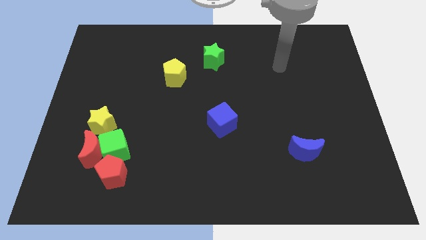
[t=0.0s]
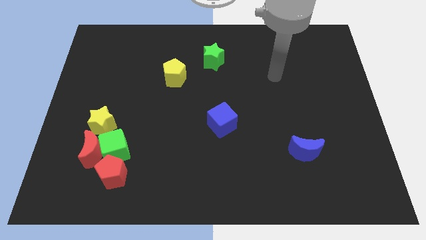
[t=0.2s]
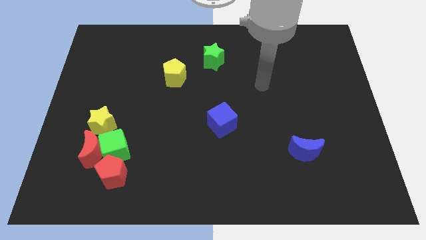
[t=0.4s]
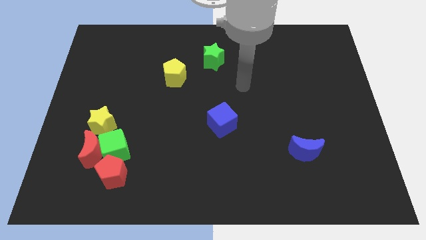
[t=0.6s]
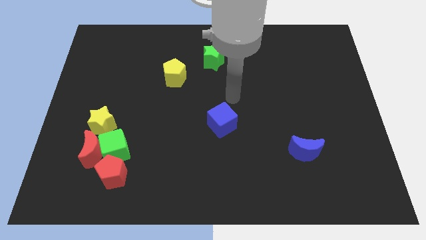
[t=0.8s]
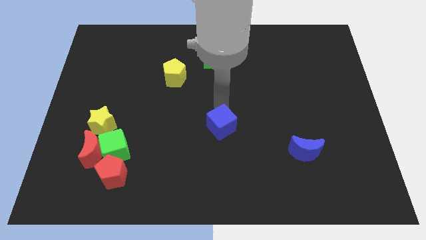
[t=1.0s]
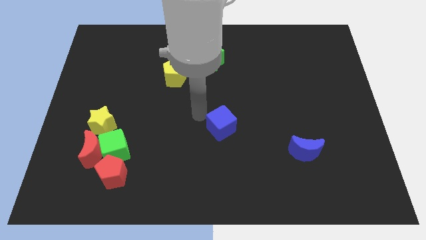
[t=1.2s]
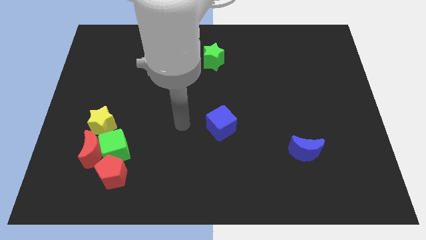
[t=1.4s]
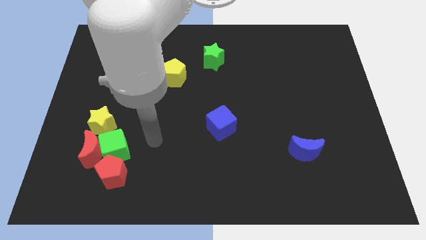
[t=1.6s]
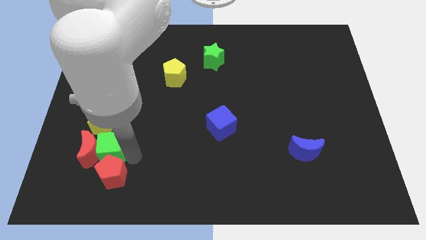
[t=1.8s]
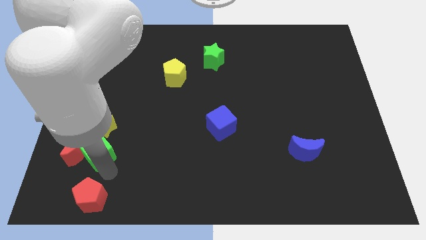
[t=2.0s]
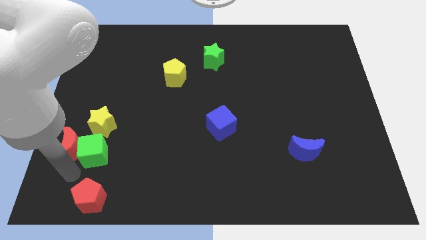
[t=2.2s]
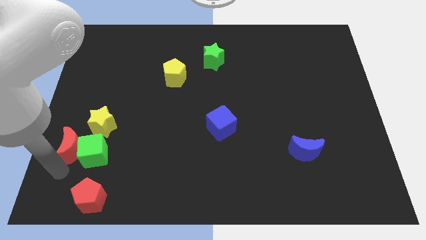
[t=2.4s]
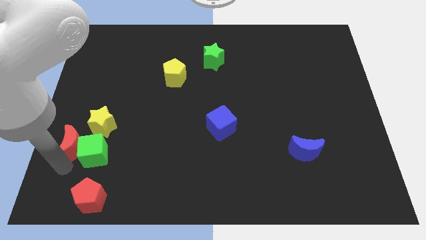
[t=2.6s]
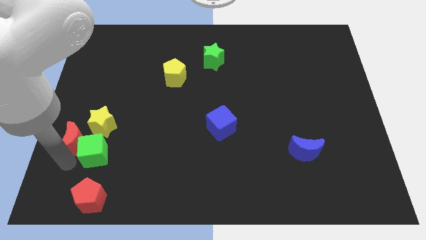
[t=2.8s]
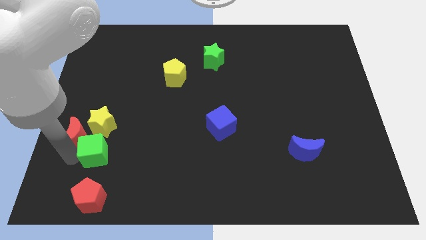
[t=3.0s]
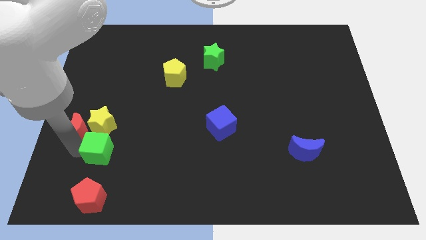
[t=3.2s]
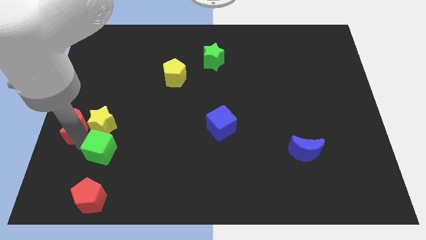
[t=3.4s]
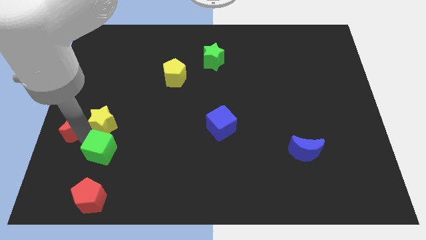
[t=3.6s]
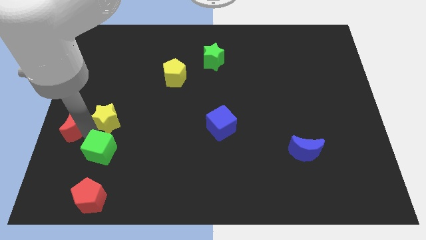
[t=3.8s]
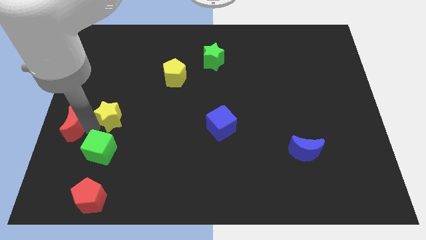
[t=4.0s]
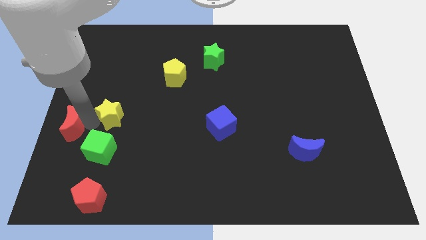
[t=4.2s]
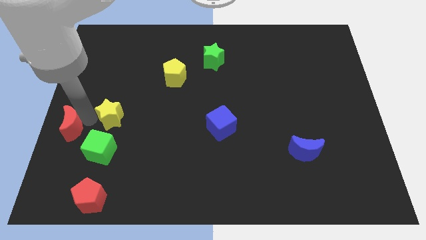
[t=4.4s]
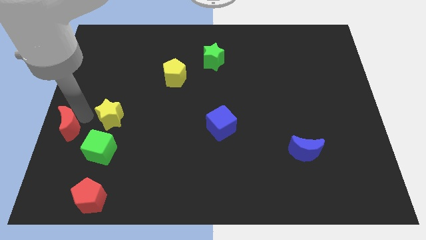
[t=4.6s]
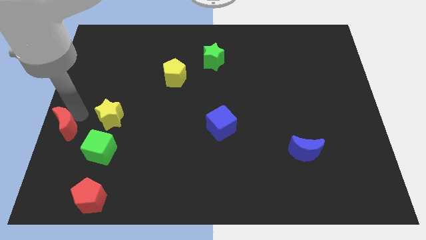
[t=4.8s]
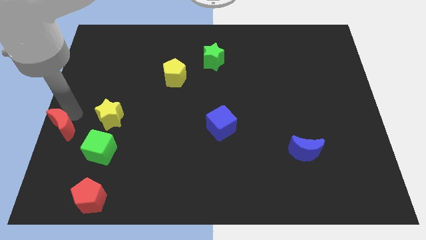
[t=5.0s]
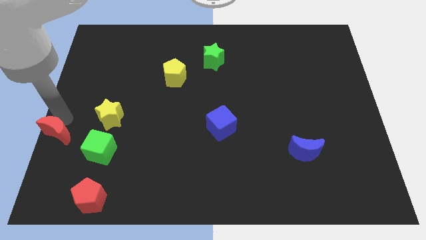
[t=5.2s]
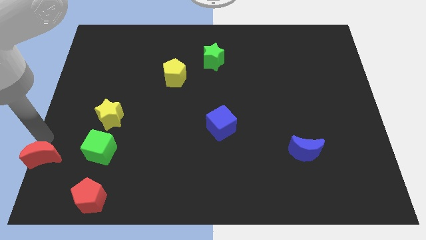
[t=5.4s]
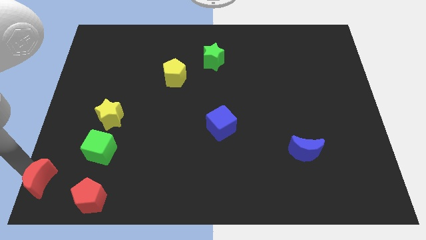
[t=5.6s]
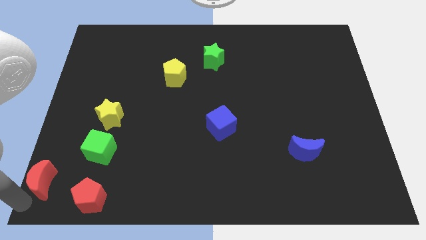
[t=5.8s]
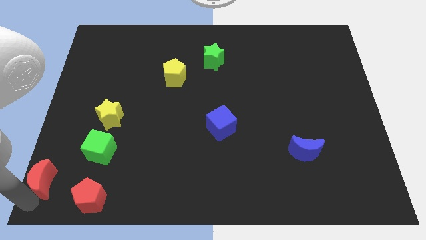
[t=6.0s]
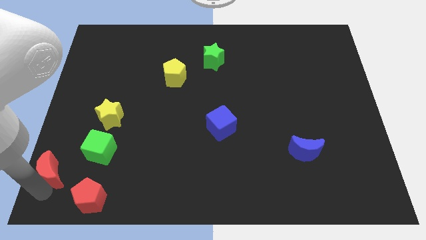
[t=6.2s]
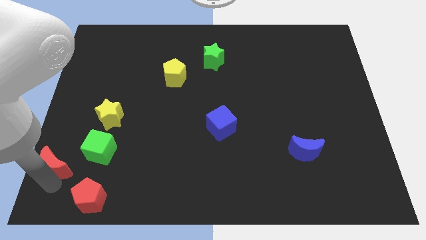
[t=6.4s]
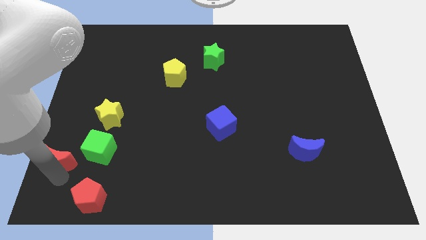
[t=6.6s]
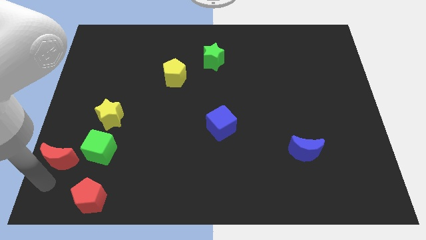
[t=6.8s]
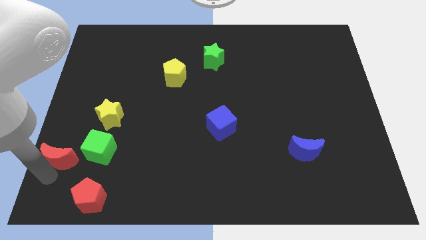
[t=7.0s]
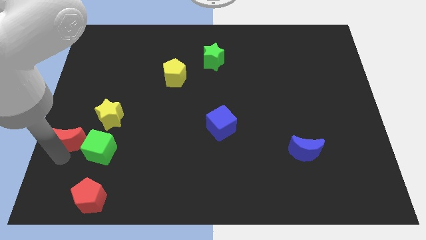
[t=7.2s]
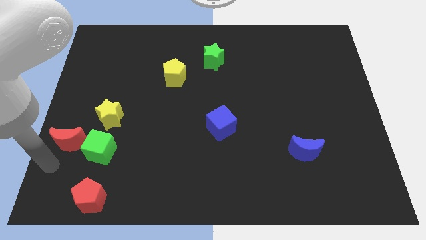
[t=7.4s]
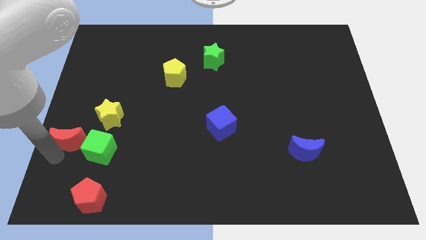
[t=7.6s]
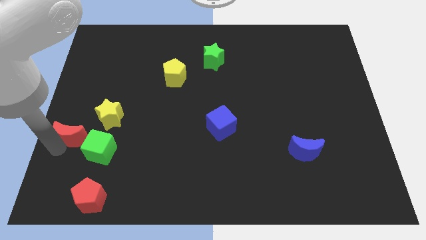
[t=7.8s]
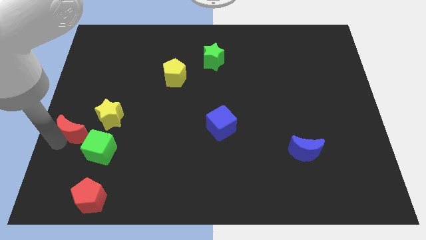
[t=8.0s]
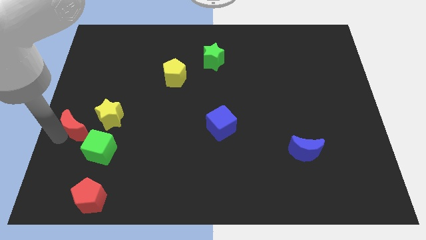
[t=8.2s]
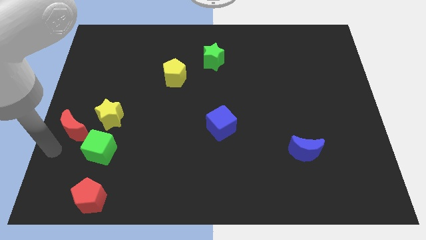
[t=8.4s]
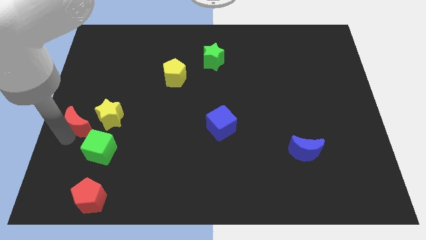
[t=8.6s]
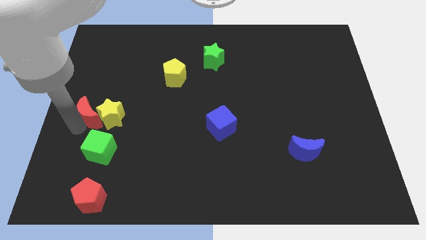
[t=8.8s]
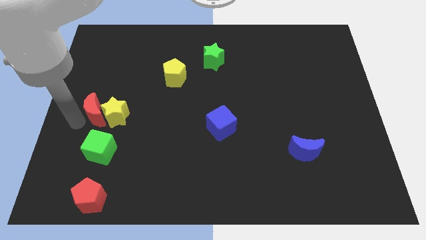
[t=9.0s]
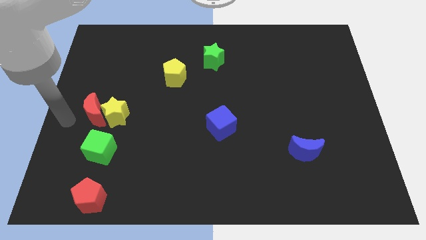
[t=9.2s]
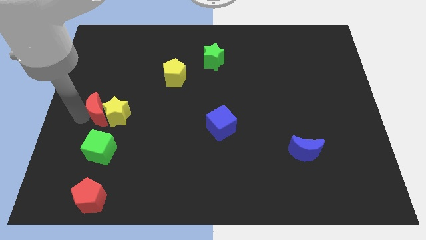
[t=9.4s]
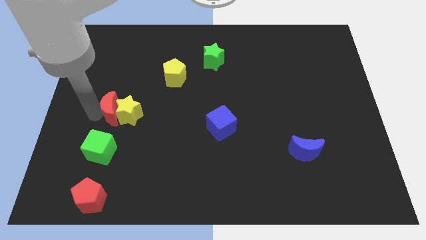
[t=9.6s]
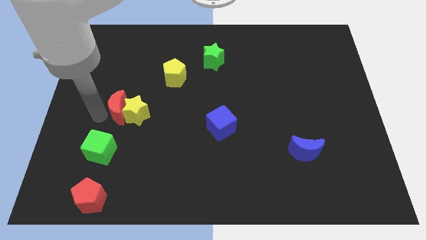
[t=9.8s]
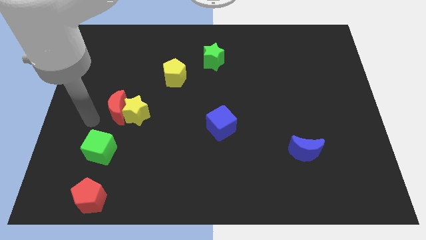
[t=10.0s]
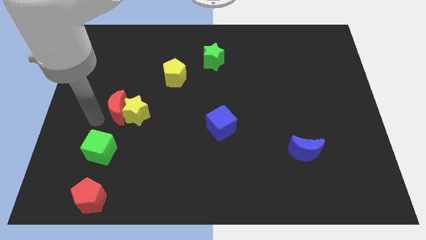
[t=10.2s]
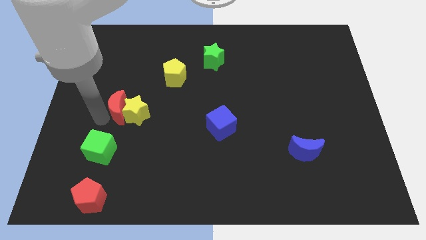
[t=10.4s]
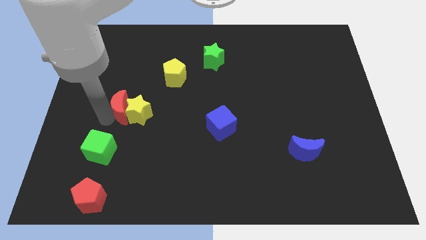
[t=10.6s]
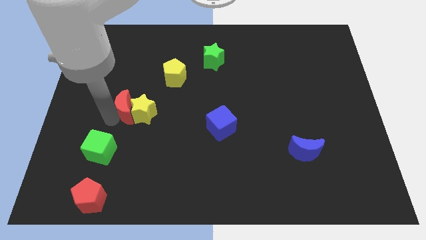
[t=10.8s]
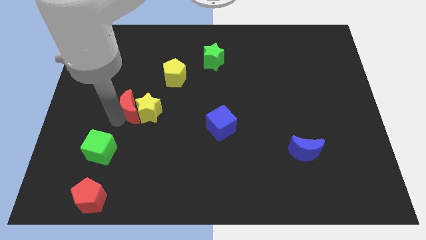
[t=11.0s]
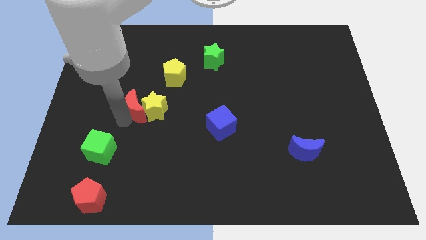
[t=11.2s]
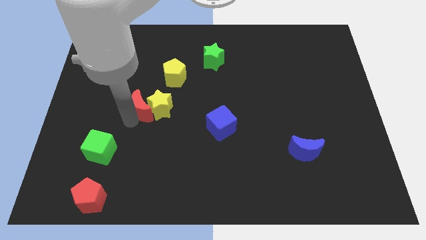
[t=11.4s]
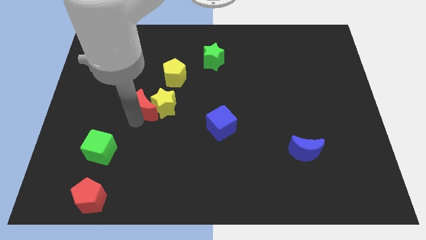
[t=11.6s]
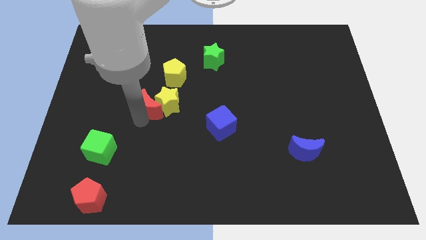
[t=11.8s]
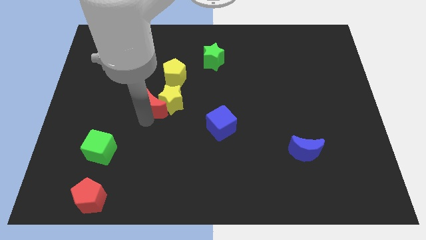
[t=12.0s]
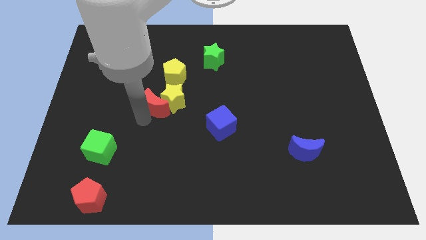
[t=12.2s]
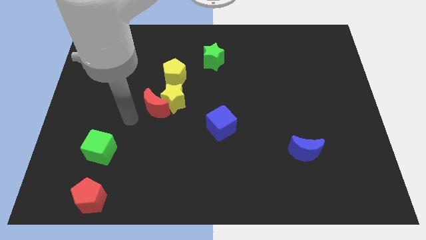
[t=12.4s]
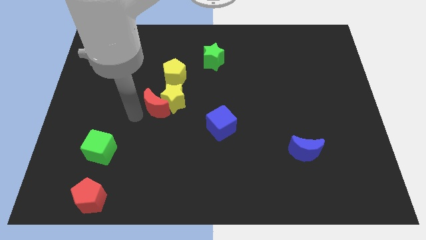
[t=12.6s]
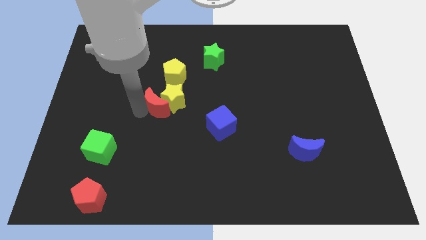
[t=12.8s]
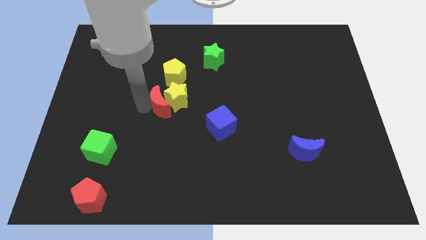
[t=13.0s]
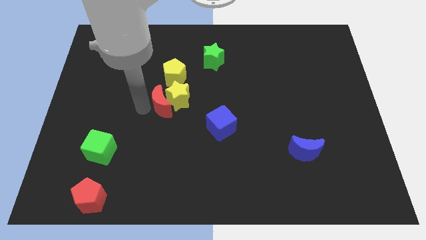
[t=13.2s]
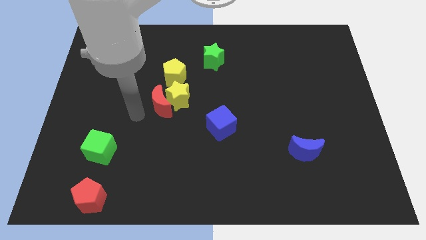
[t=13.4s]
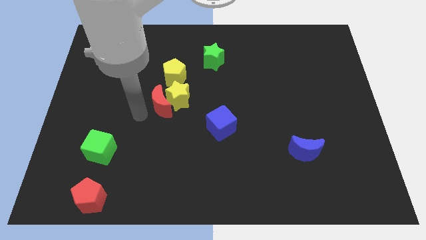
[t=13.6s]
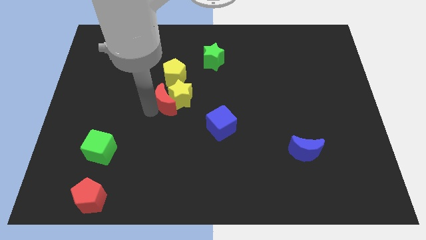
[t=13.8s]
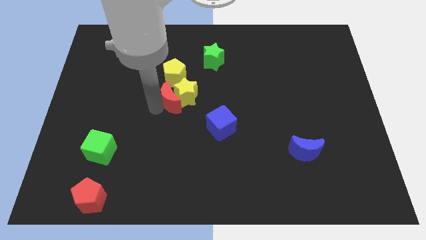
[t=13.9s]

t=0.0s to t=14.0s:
move the red moon up and then right

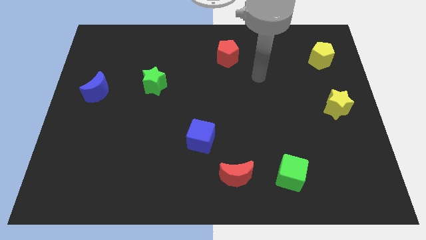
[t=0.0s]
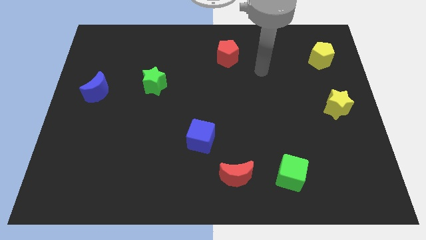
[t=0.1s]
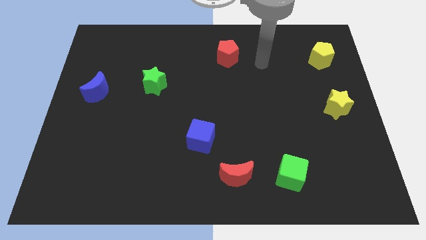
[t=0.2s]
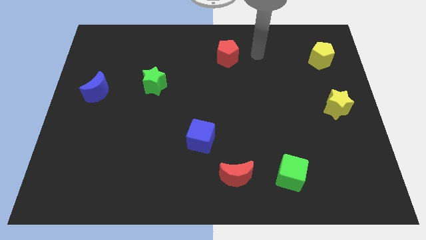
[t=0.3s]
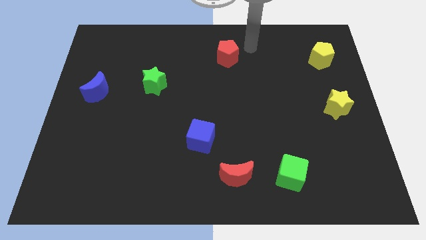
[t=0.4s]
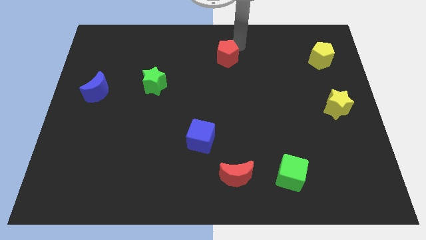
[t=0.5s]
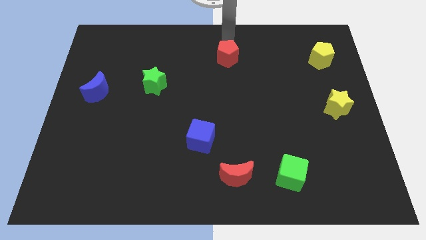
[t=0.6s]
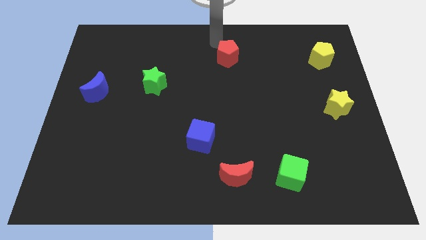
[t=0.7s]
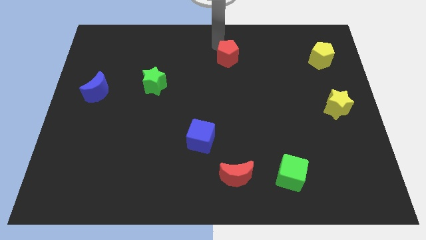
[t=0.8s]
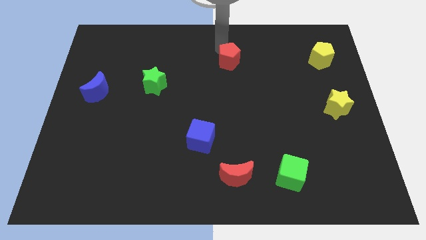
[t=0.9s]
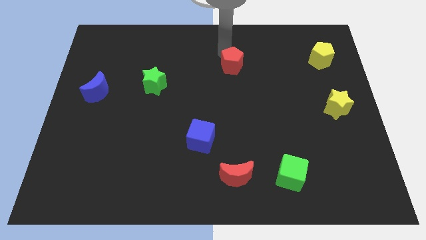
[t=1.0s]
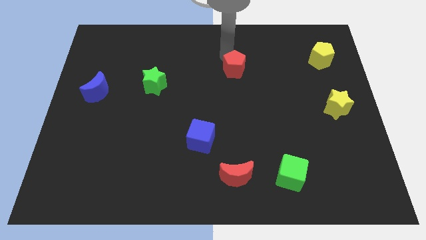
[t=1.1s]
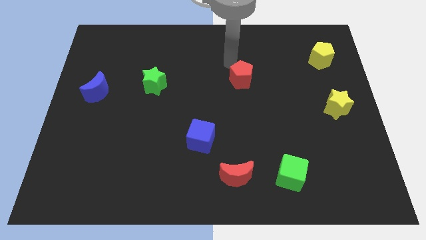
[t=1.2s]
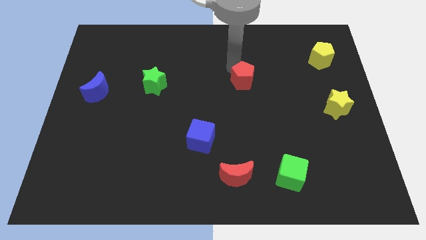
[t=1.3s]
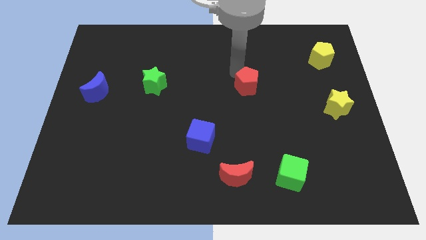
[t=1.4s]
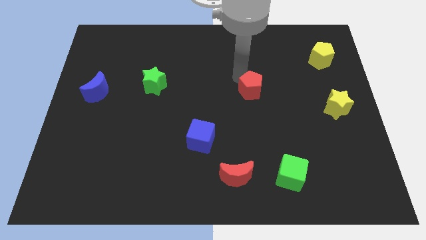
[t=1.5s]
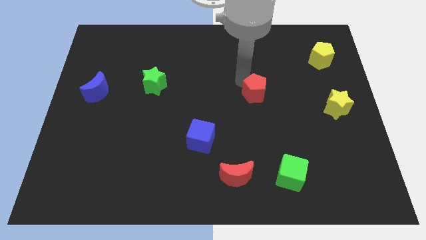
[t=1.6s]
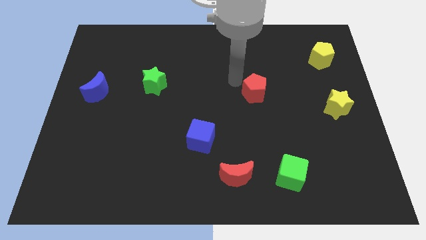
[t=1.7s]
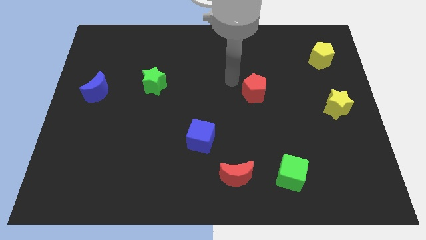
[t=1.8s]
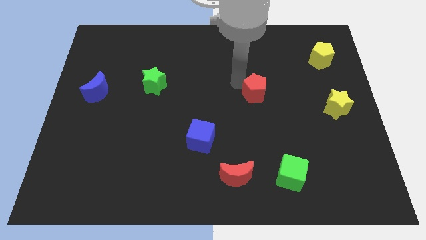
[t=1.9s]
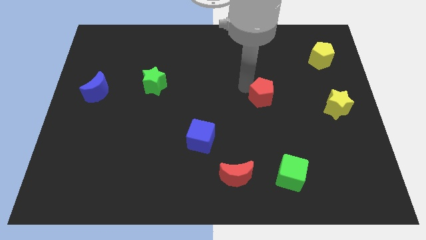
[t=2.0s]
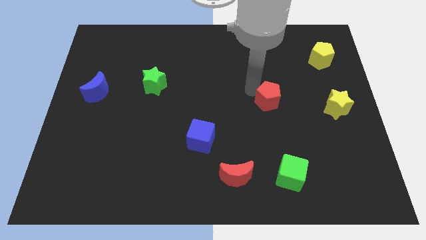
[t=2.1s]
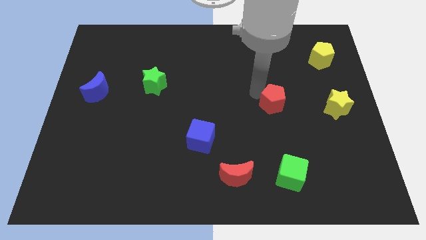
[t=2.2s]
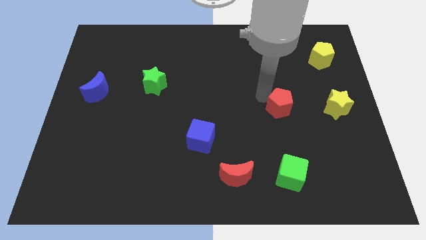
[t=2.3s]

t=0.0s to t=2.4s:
slide the red pentagon downwards and to the right
